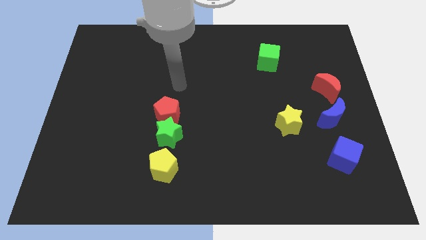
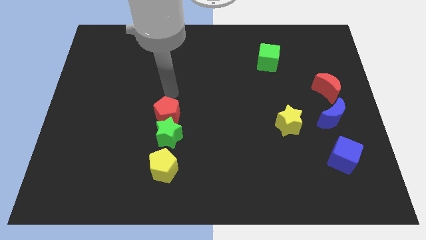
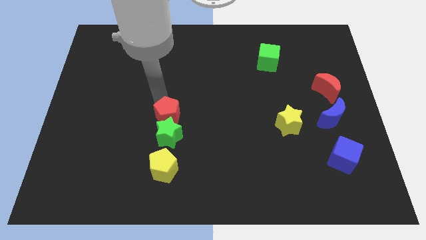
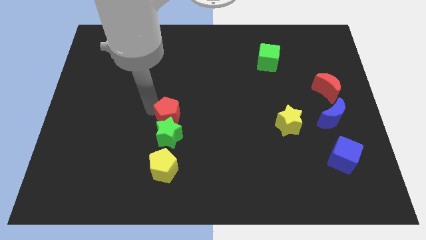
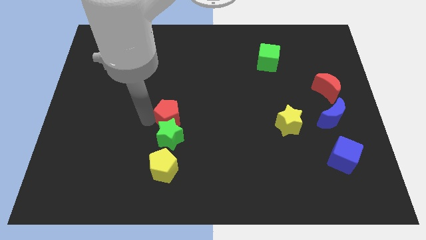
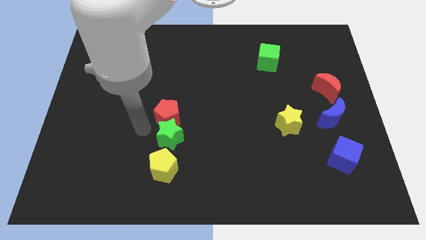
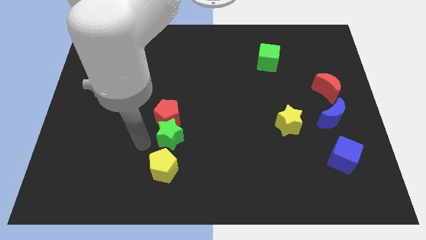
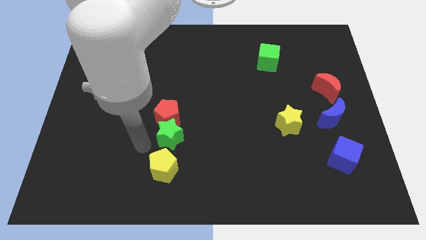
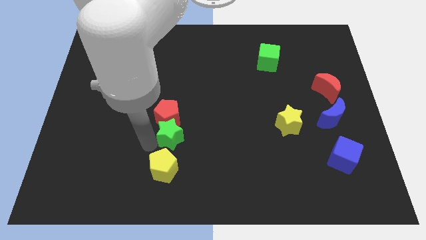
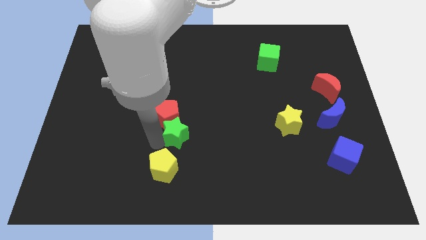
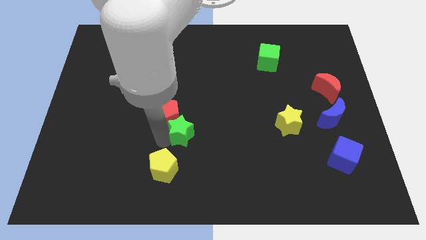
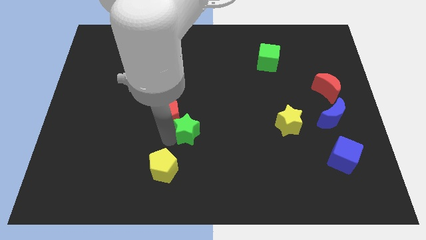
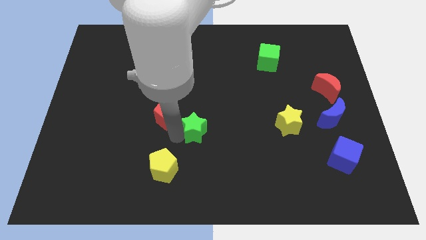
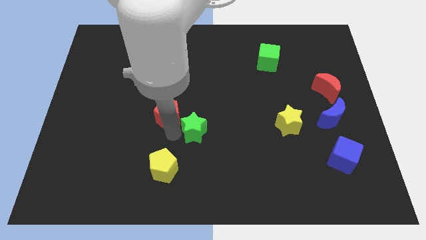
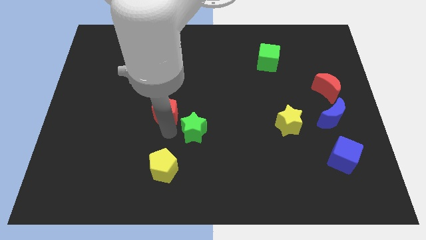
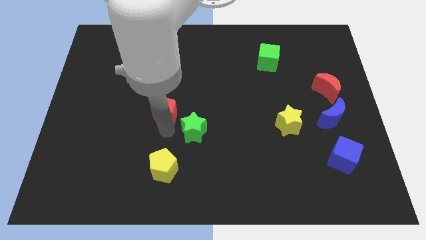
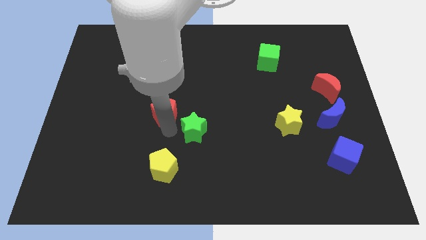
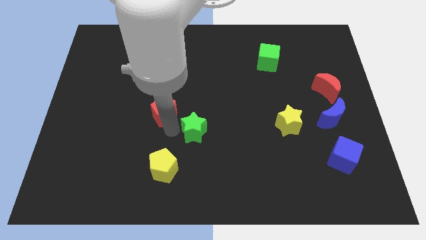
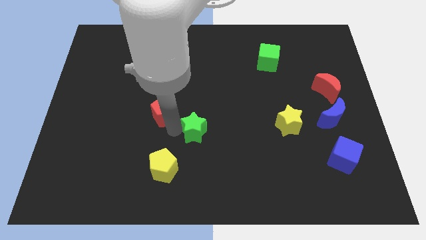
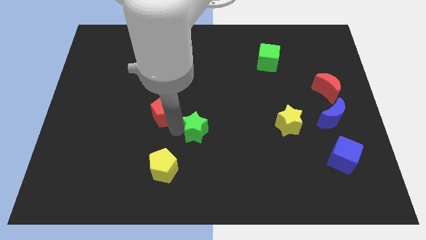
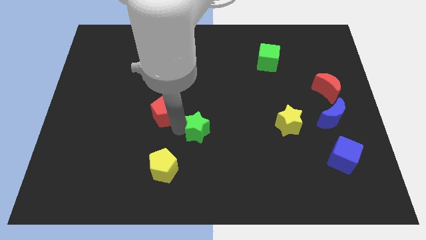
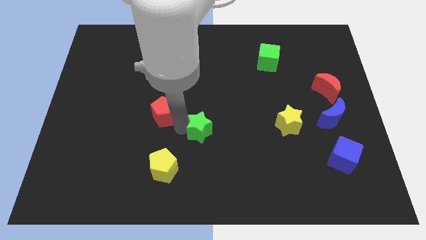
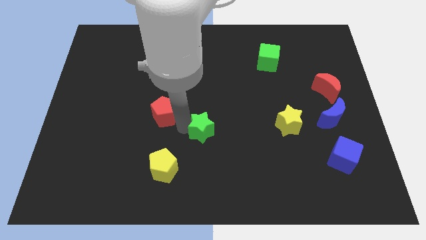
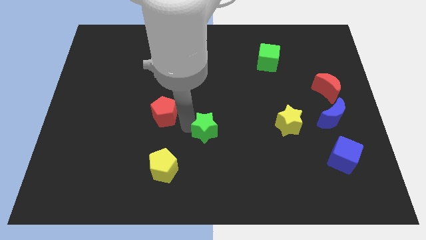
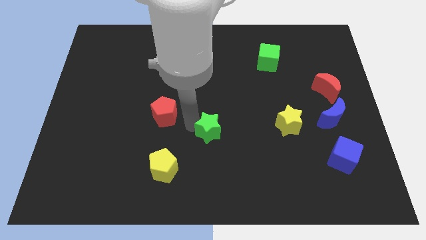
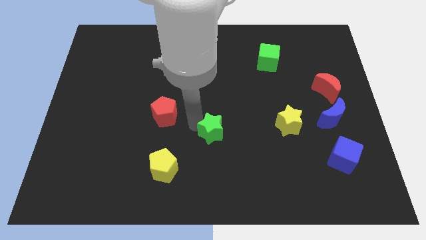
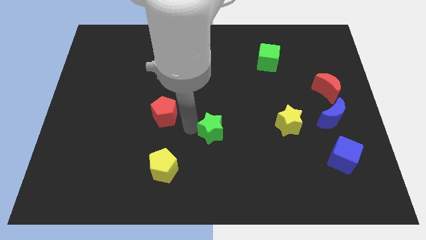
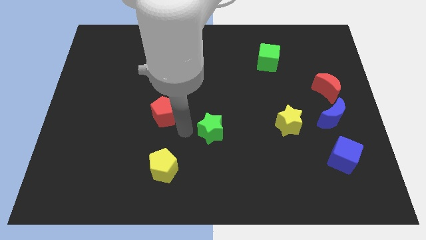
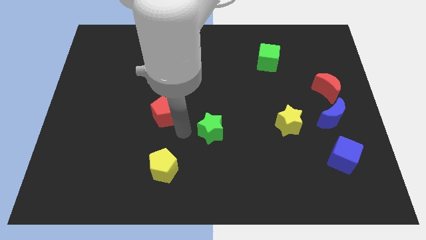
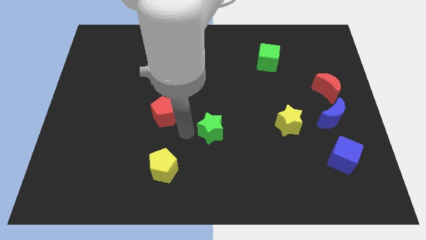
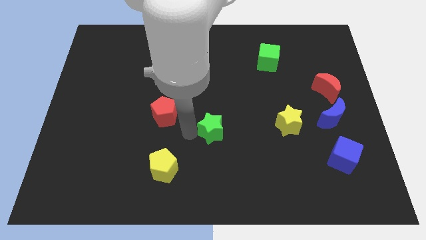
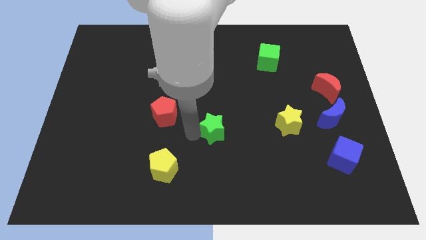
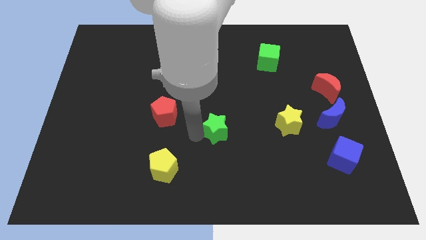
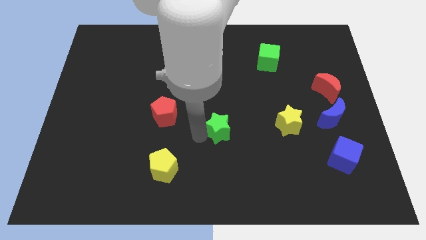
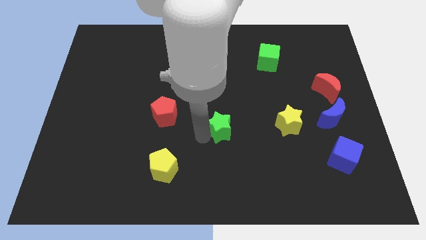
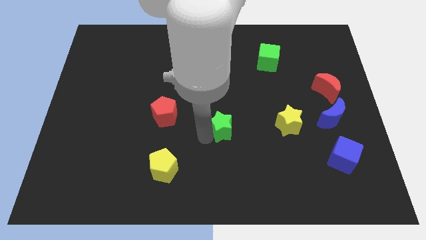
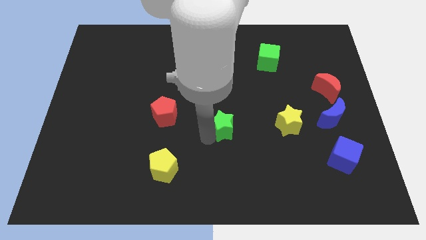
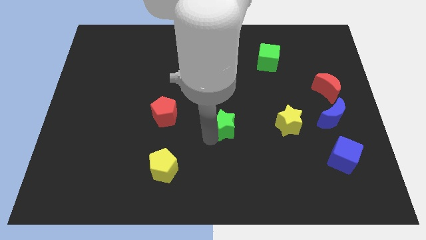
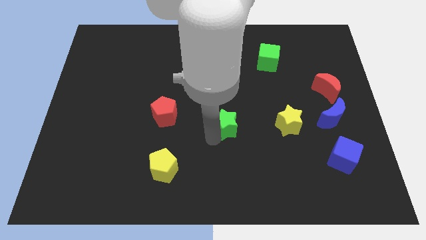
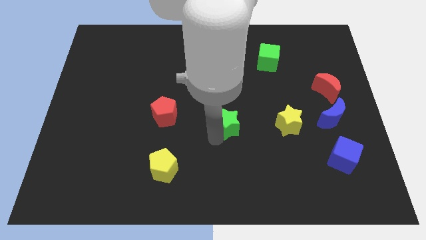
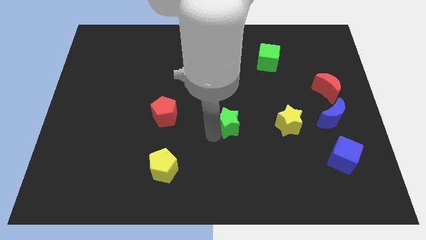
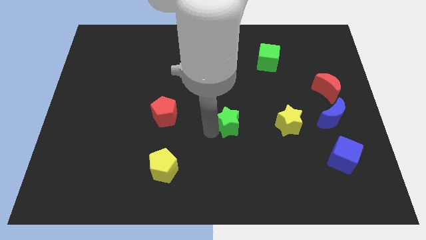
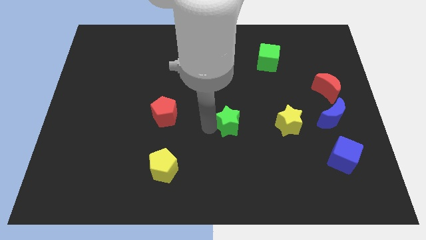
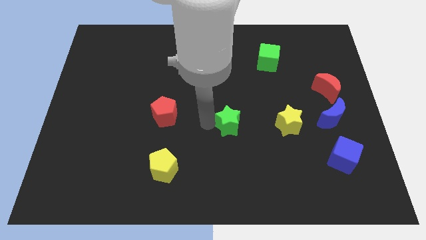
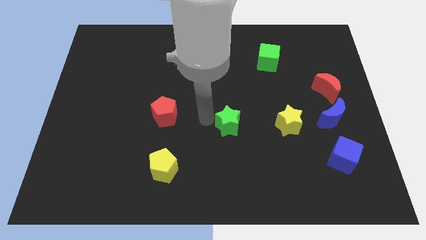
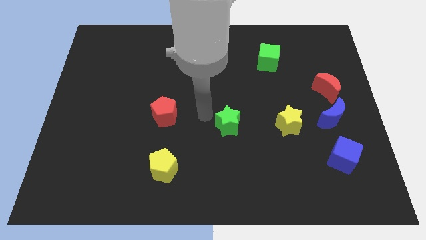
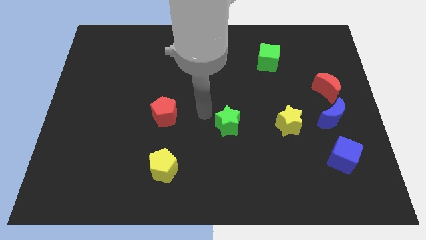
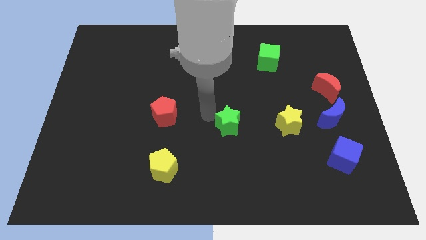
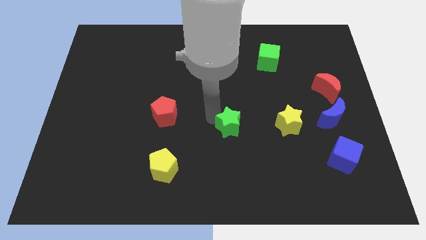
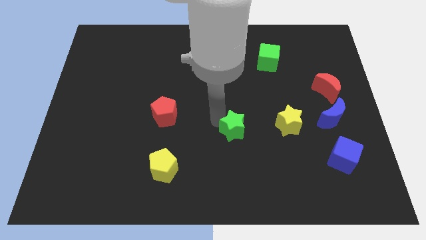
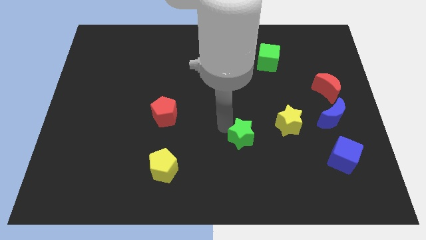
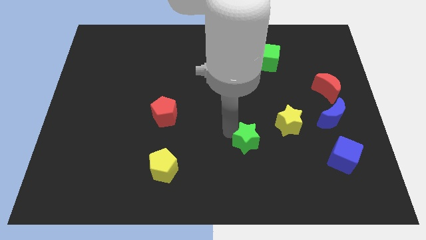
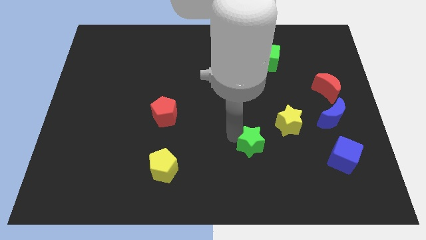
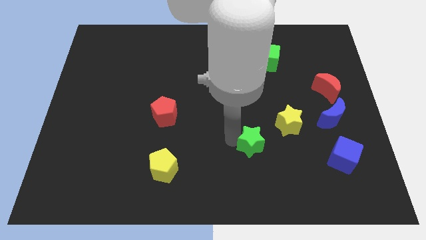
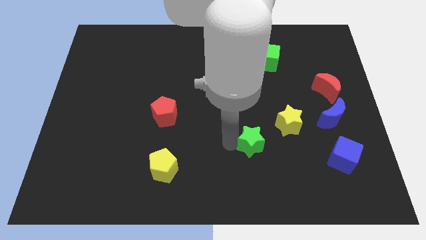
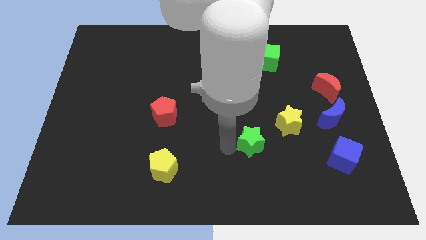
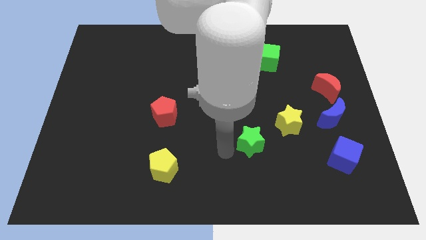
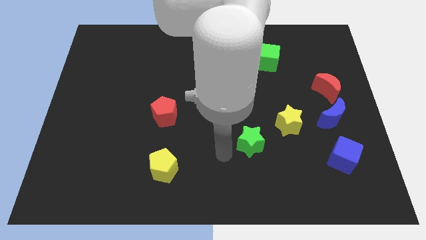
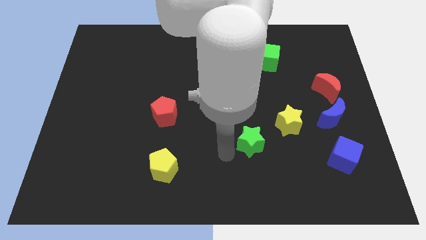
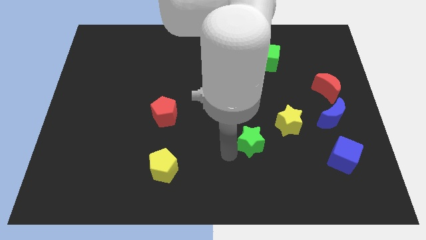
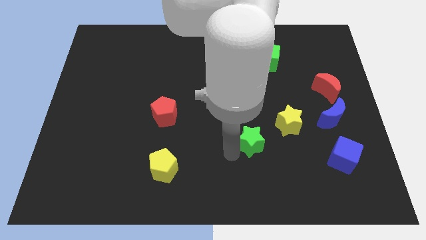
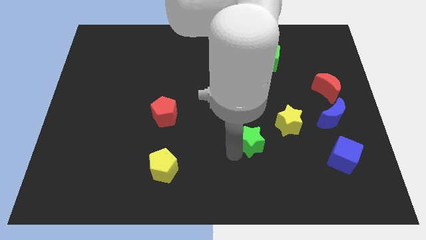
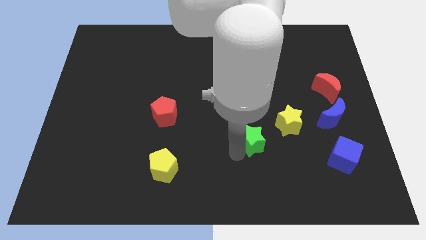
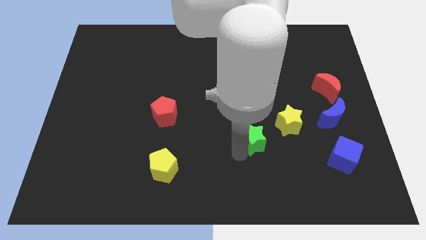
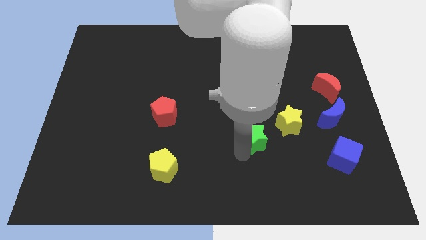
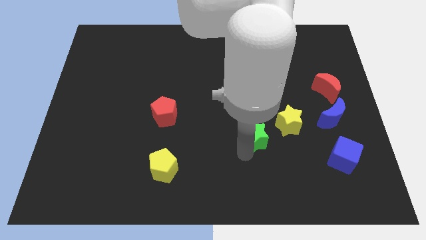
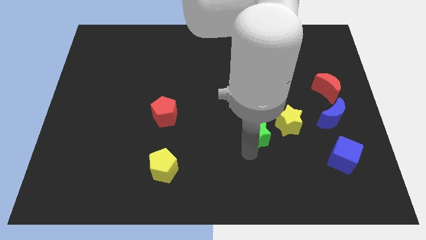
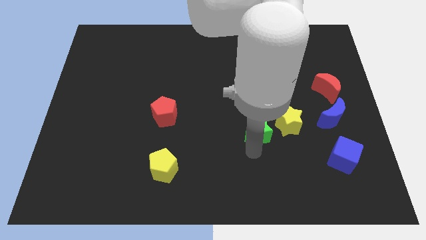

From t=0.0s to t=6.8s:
push the green star to the right

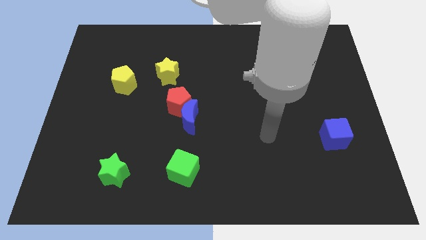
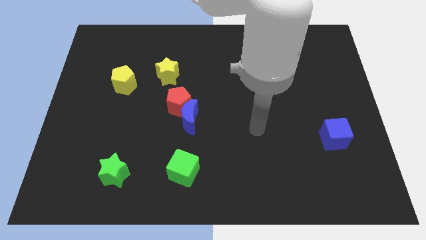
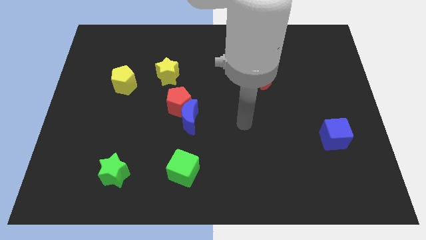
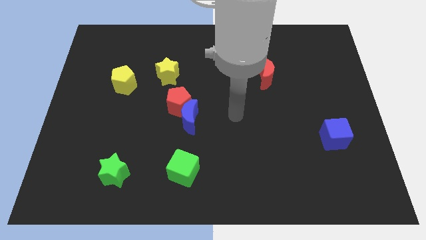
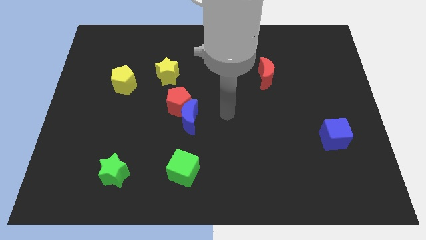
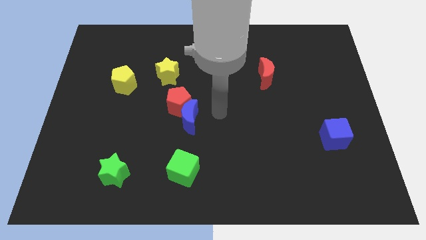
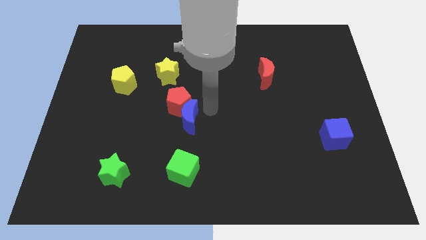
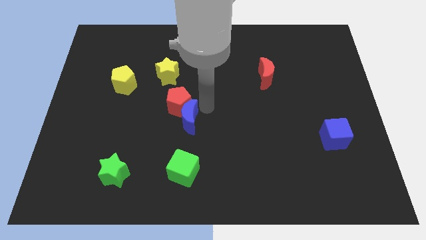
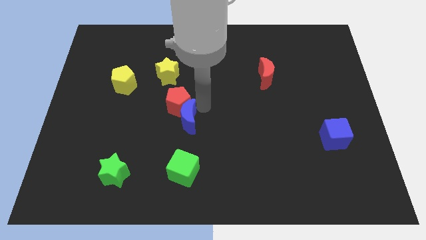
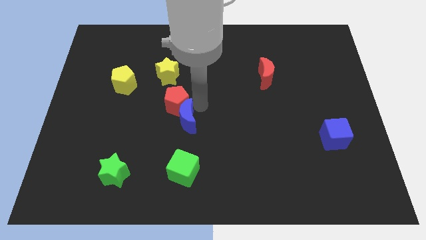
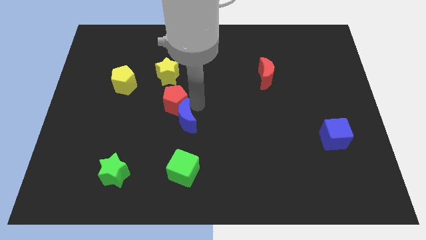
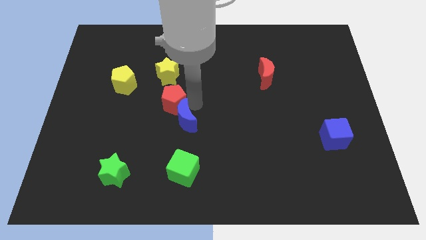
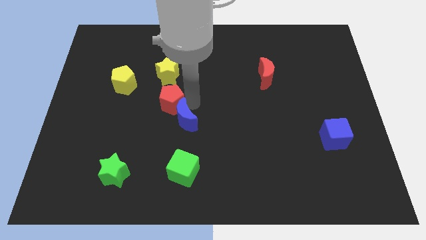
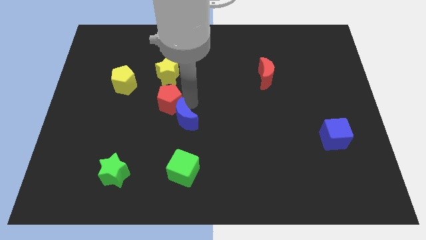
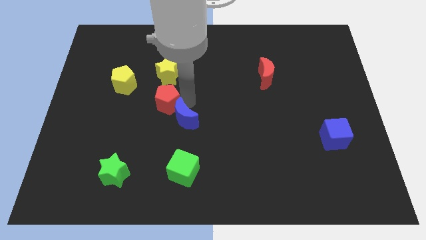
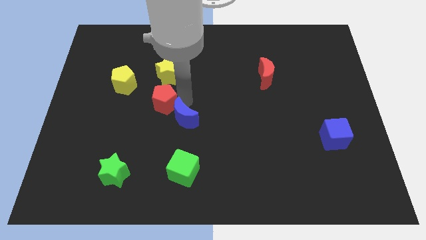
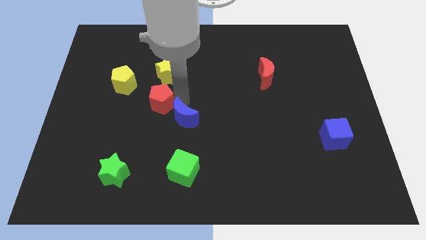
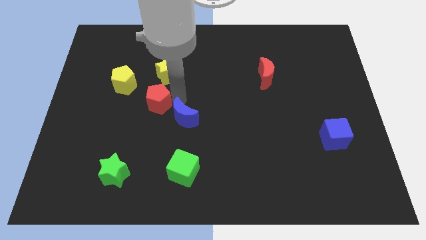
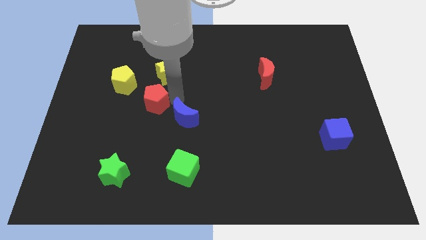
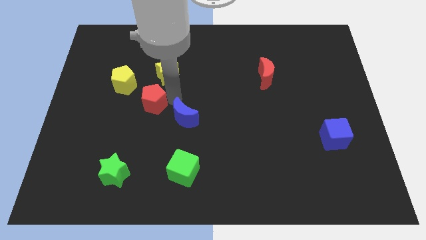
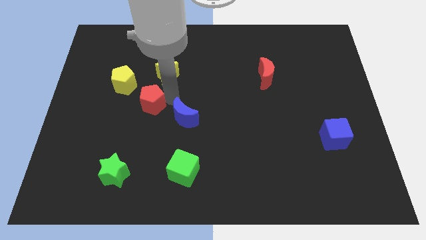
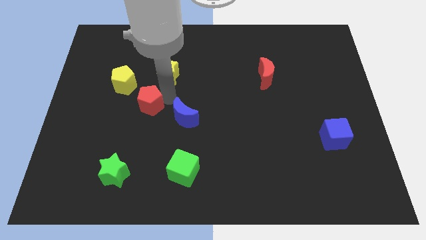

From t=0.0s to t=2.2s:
slide the red pentagon left a little
